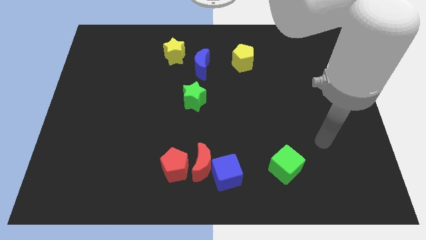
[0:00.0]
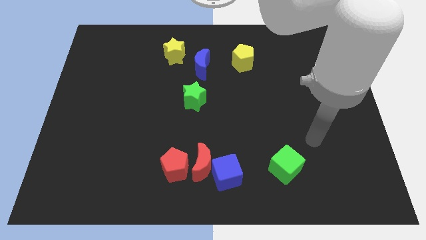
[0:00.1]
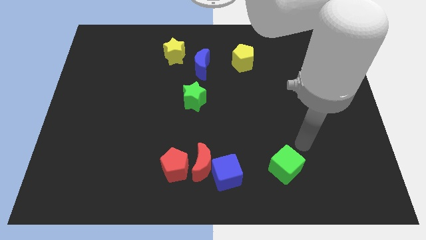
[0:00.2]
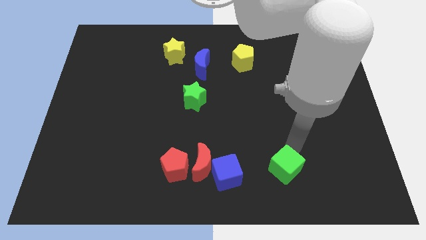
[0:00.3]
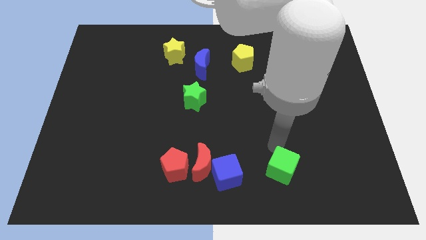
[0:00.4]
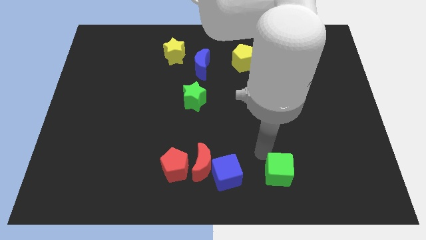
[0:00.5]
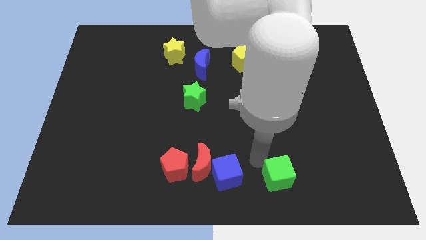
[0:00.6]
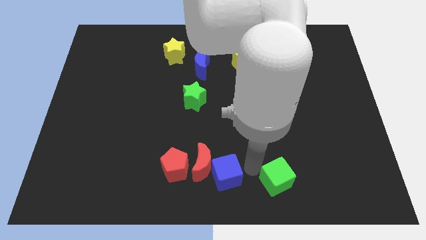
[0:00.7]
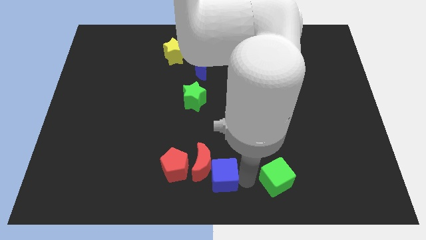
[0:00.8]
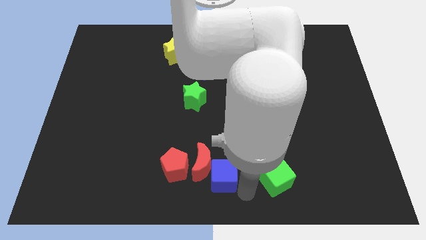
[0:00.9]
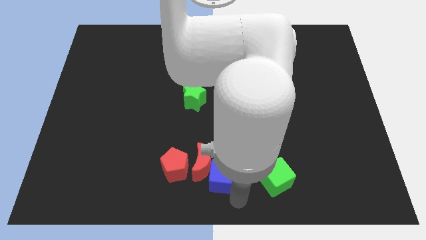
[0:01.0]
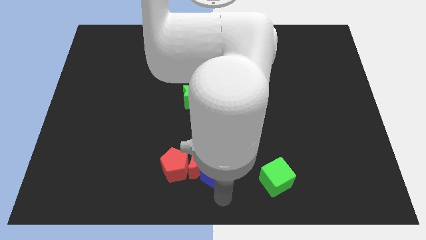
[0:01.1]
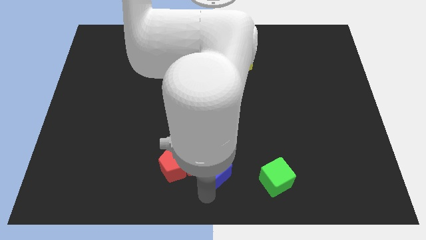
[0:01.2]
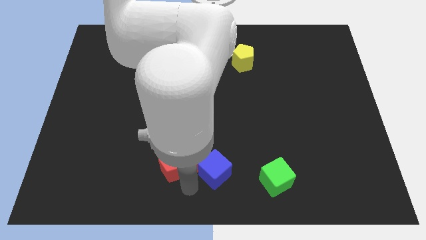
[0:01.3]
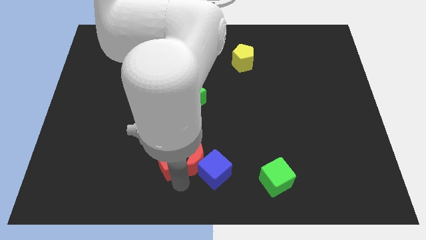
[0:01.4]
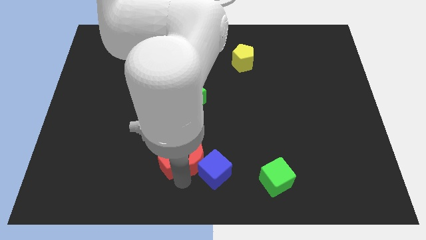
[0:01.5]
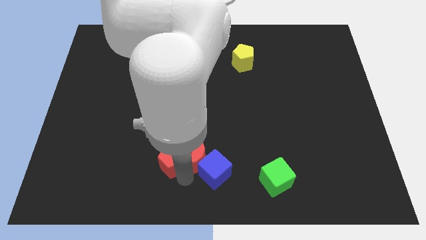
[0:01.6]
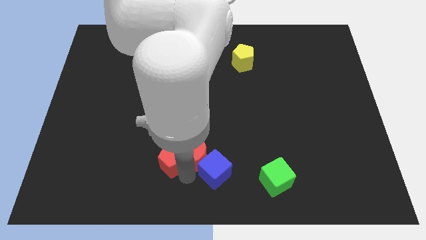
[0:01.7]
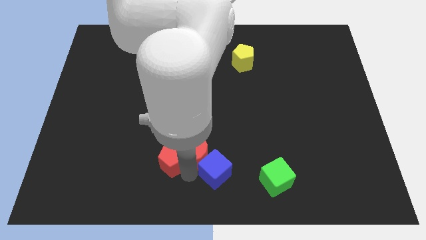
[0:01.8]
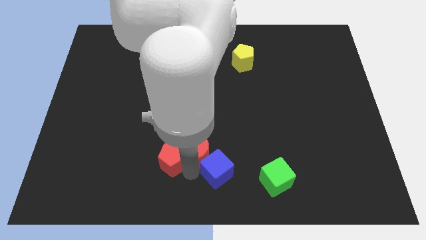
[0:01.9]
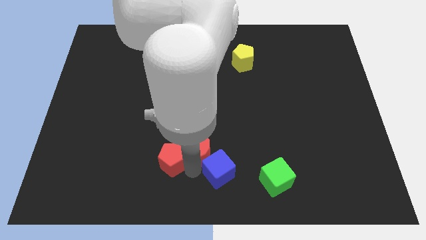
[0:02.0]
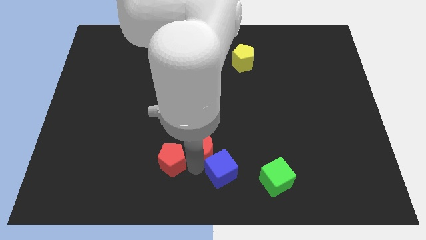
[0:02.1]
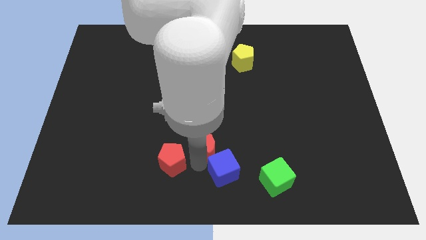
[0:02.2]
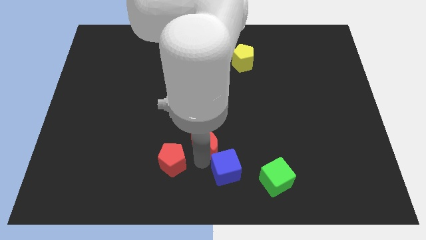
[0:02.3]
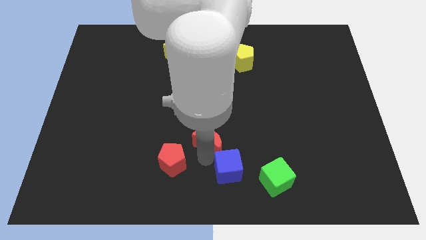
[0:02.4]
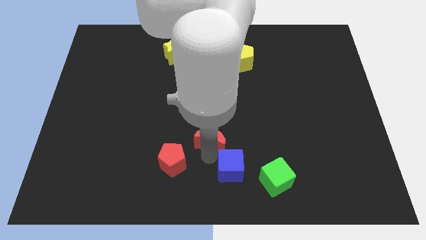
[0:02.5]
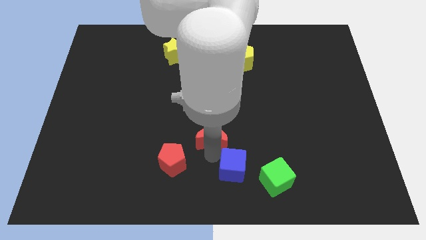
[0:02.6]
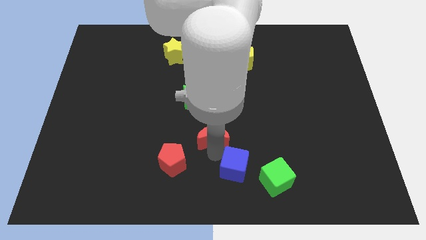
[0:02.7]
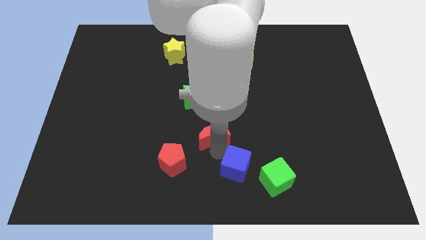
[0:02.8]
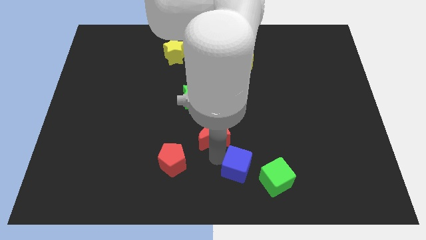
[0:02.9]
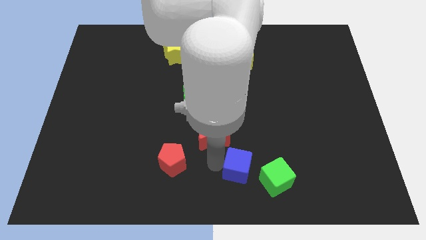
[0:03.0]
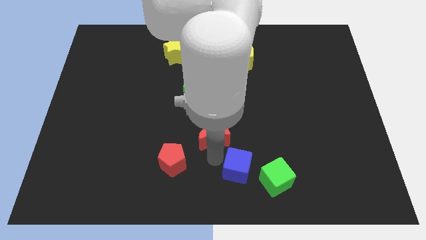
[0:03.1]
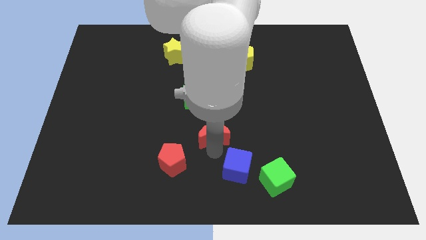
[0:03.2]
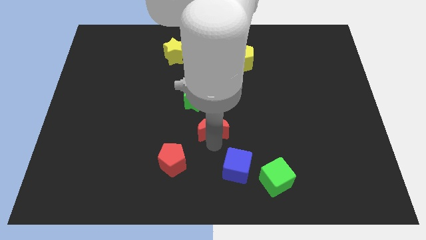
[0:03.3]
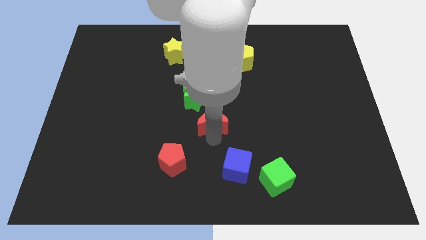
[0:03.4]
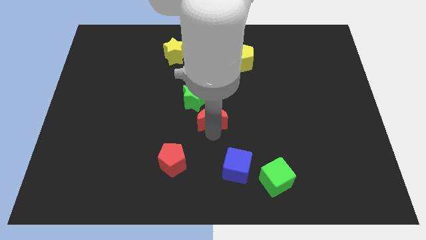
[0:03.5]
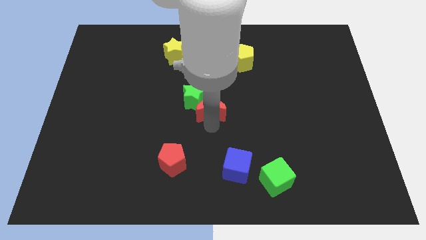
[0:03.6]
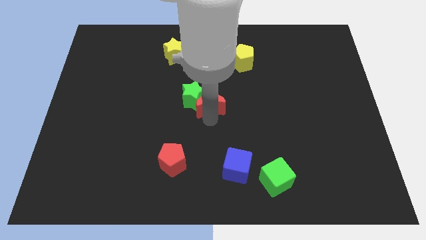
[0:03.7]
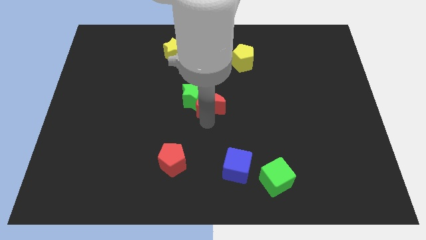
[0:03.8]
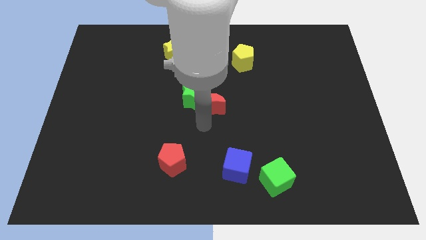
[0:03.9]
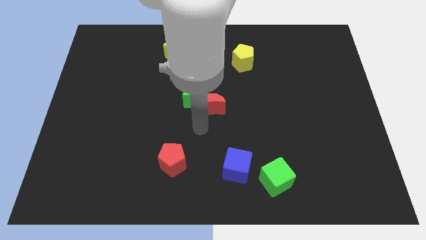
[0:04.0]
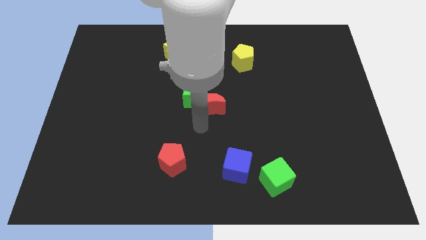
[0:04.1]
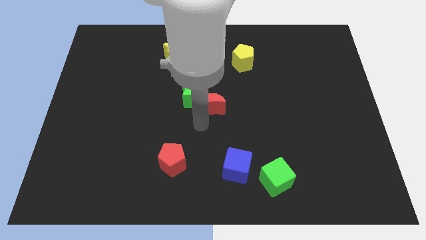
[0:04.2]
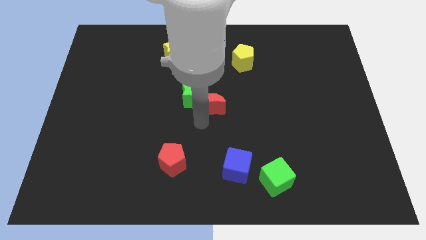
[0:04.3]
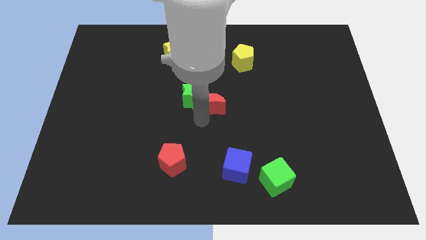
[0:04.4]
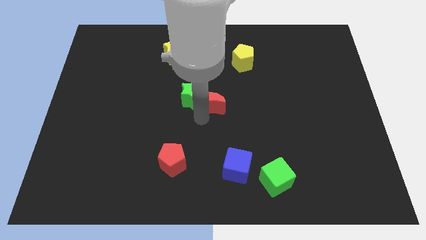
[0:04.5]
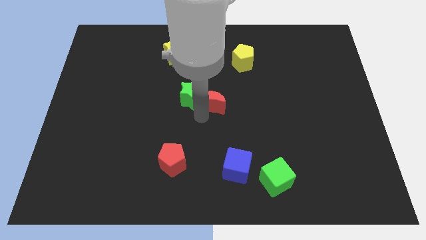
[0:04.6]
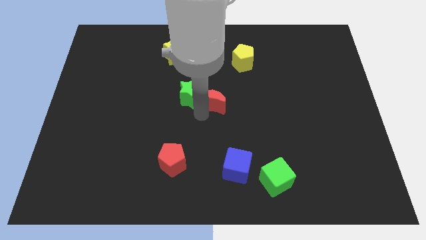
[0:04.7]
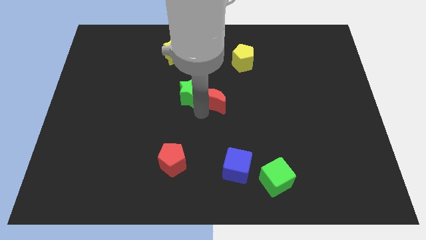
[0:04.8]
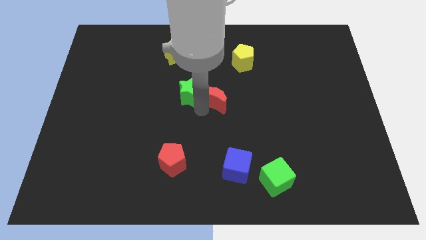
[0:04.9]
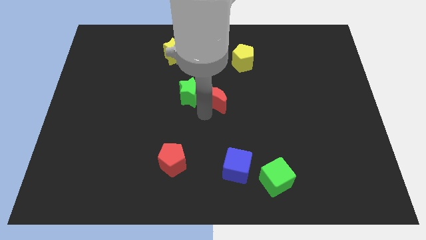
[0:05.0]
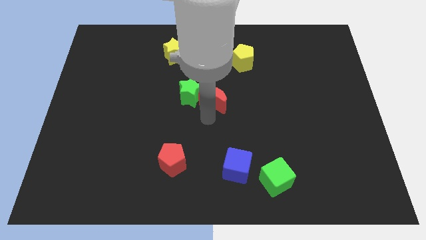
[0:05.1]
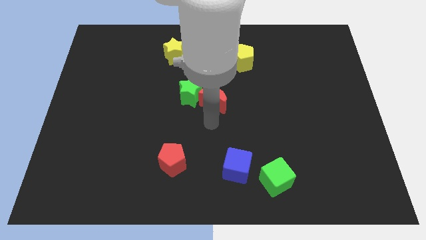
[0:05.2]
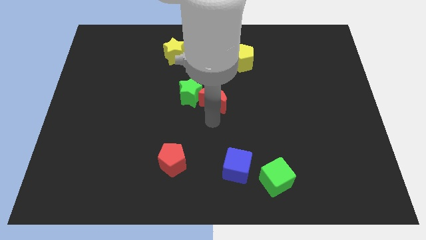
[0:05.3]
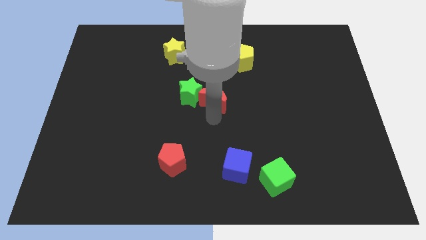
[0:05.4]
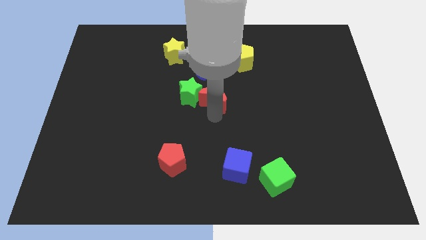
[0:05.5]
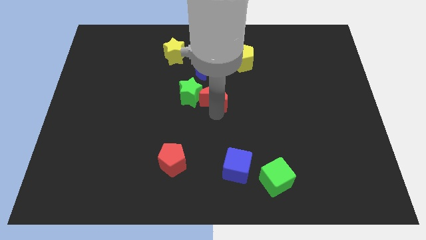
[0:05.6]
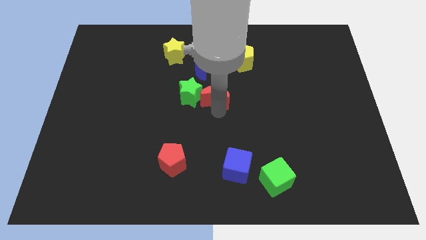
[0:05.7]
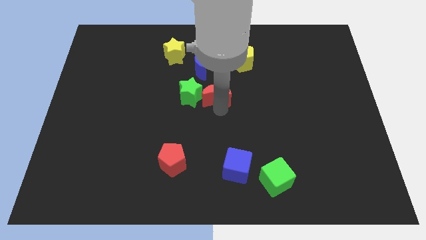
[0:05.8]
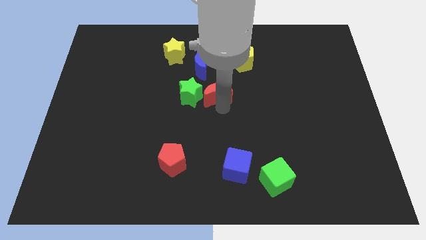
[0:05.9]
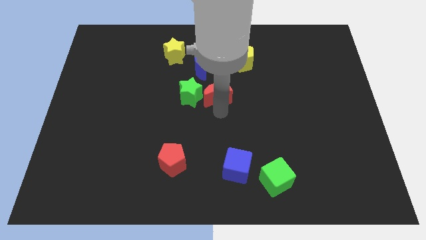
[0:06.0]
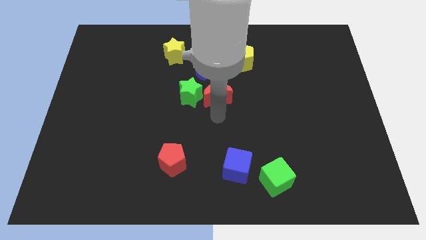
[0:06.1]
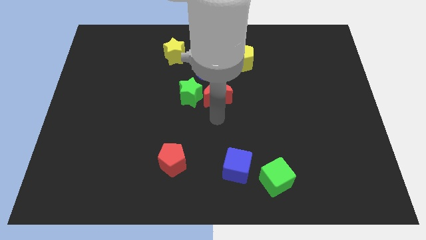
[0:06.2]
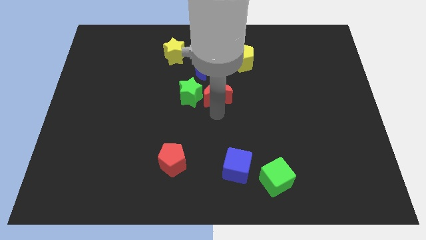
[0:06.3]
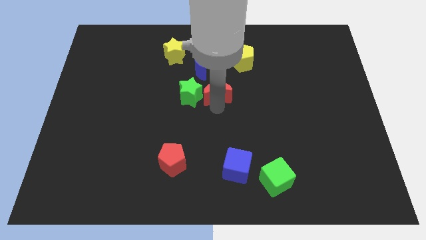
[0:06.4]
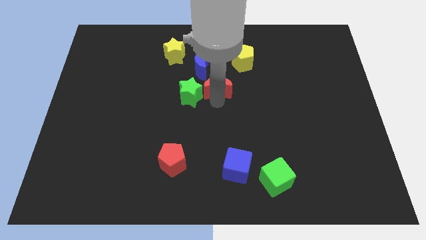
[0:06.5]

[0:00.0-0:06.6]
slide the red moon upwards

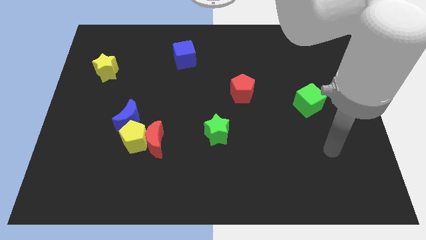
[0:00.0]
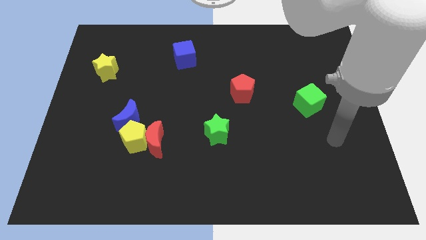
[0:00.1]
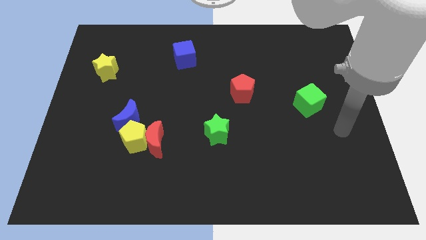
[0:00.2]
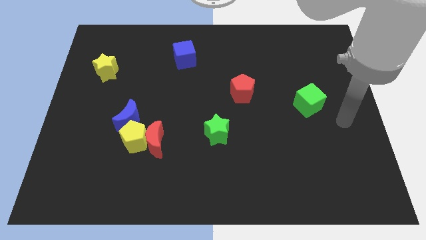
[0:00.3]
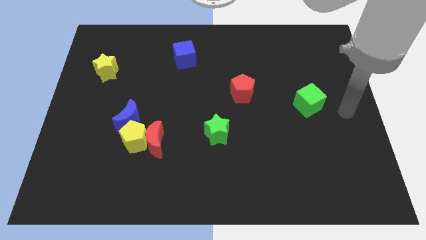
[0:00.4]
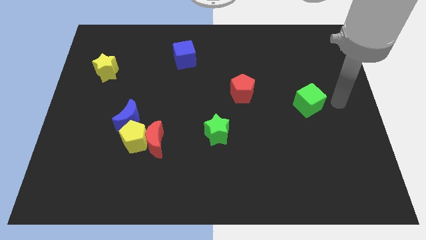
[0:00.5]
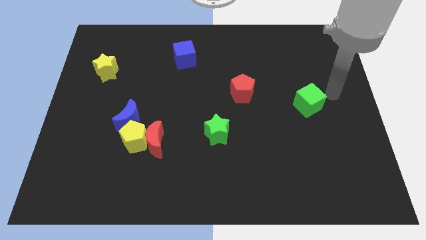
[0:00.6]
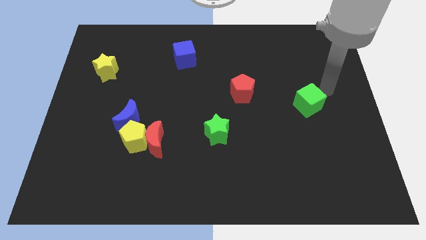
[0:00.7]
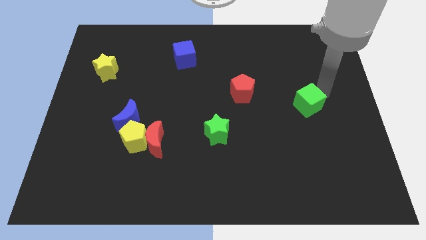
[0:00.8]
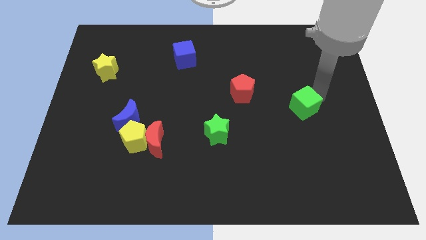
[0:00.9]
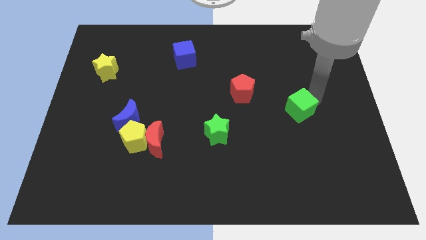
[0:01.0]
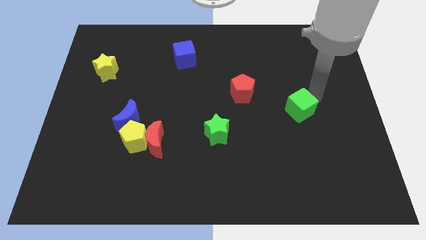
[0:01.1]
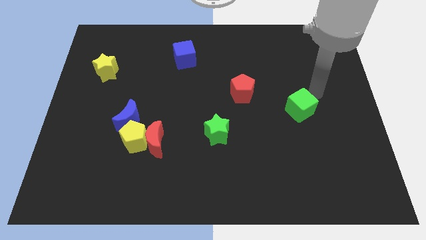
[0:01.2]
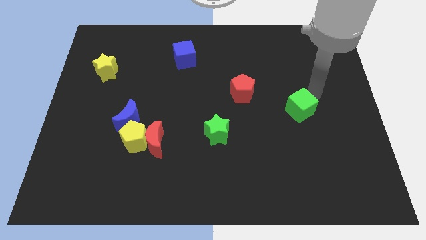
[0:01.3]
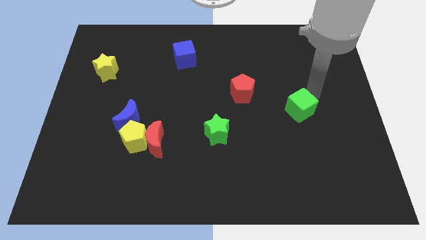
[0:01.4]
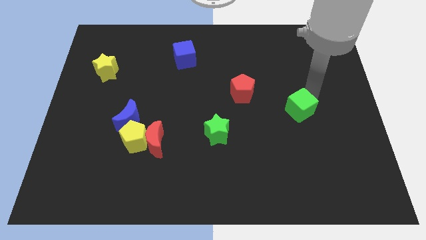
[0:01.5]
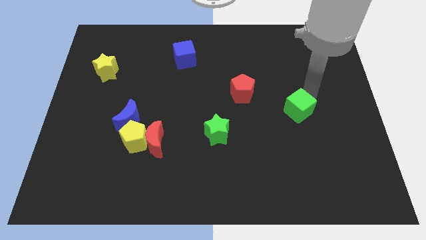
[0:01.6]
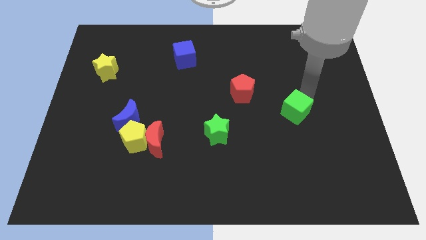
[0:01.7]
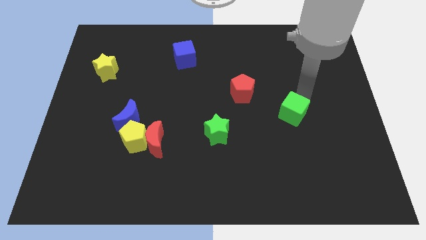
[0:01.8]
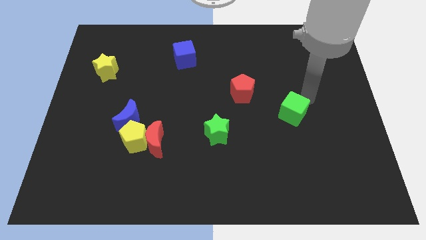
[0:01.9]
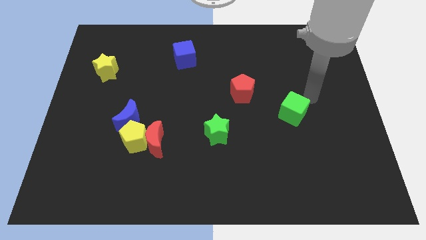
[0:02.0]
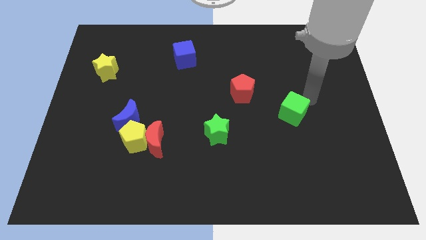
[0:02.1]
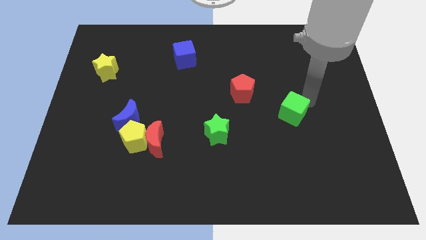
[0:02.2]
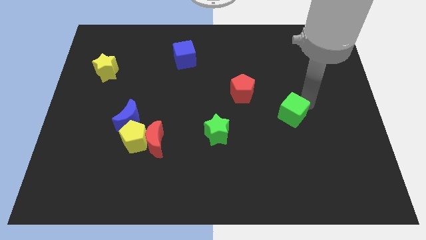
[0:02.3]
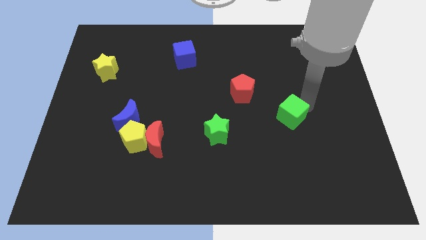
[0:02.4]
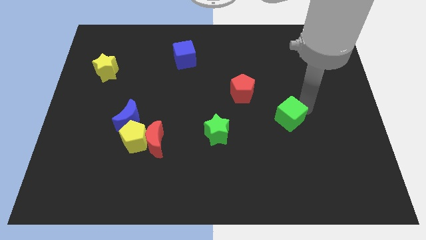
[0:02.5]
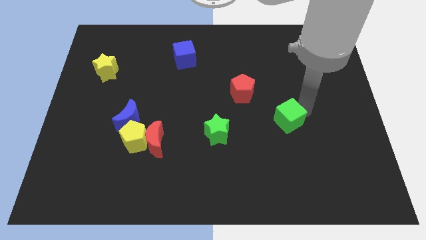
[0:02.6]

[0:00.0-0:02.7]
slide the green cube downwards and left slightly
